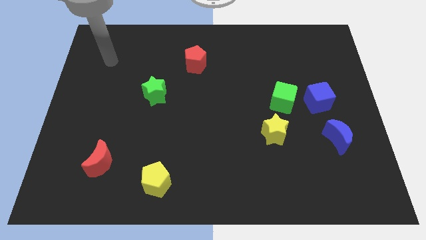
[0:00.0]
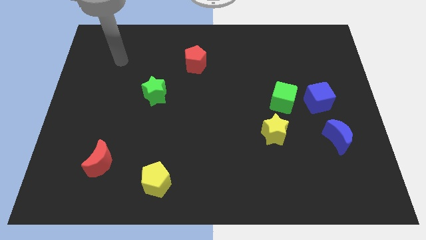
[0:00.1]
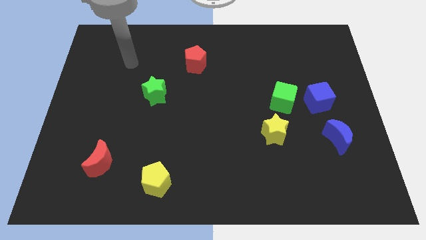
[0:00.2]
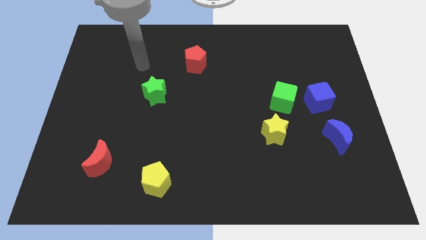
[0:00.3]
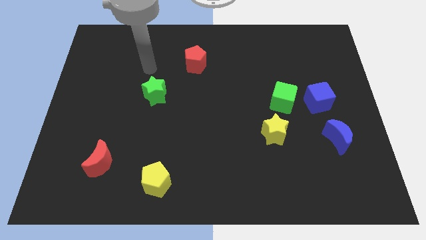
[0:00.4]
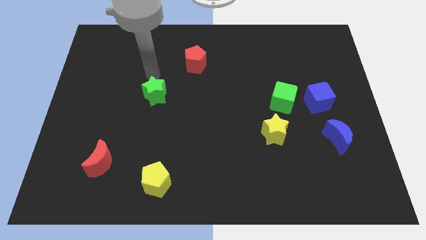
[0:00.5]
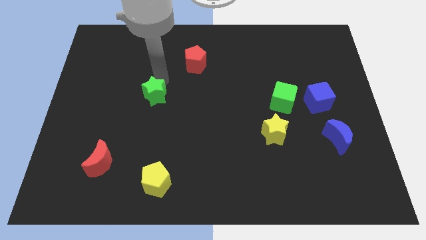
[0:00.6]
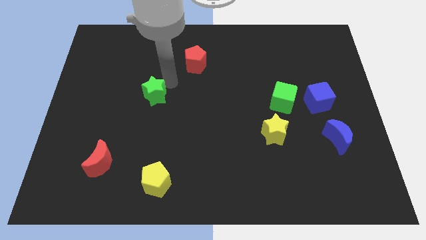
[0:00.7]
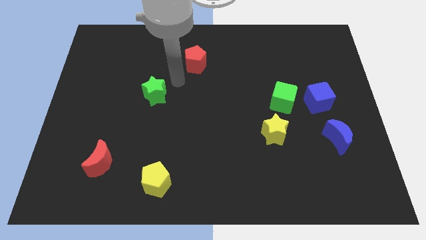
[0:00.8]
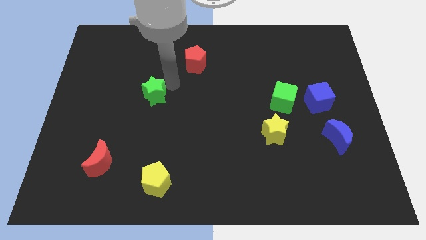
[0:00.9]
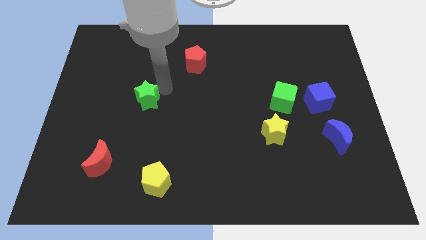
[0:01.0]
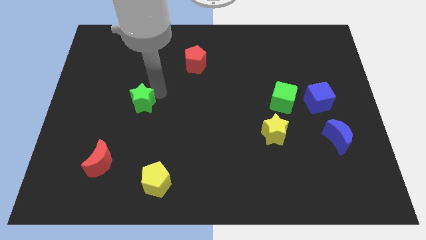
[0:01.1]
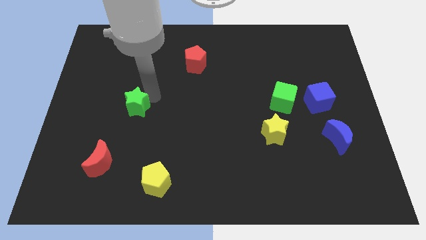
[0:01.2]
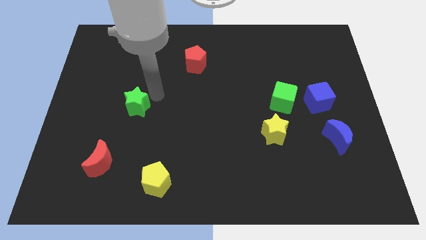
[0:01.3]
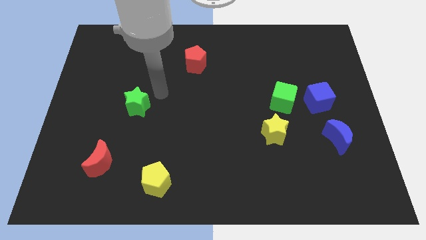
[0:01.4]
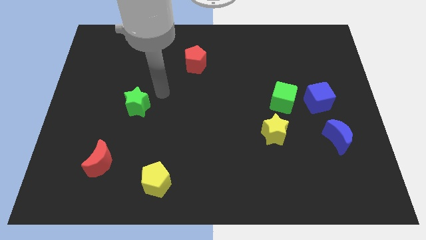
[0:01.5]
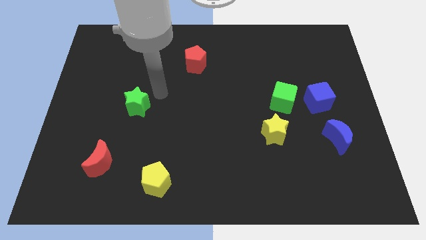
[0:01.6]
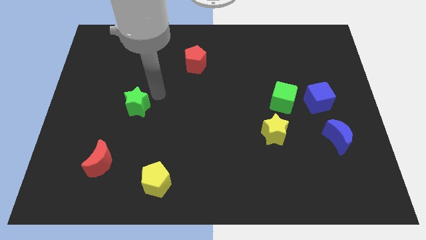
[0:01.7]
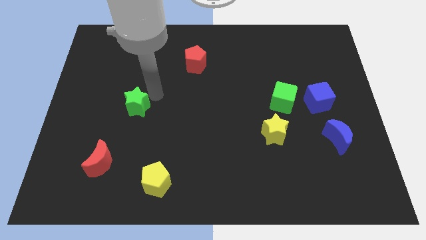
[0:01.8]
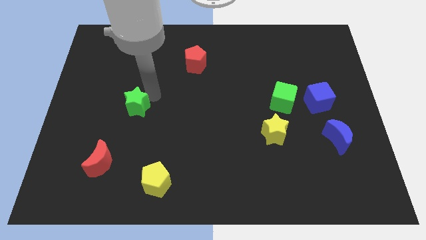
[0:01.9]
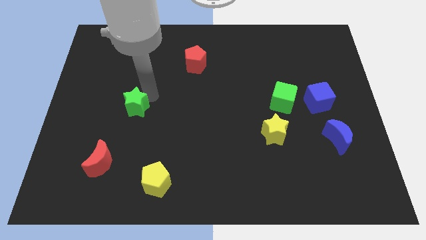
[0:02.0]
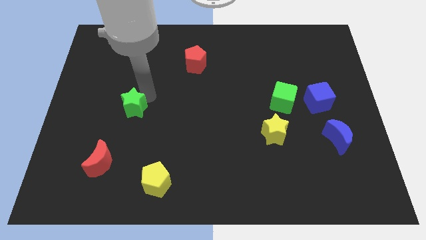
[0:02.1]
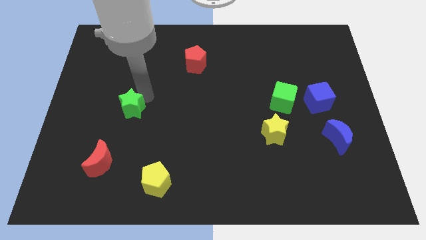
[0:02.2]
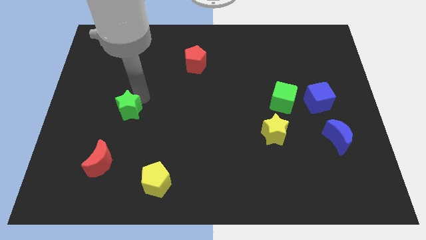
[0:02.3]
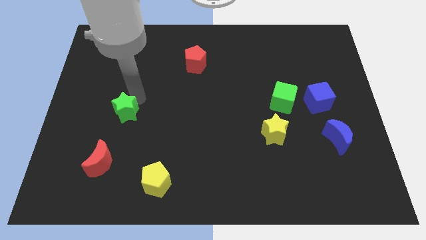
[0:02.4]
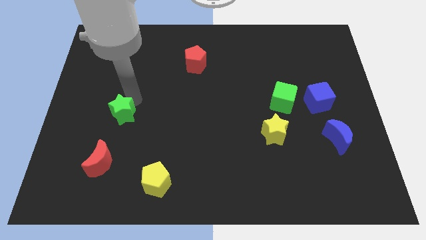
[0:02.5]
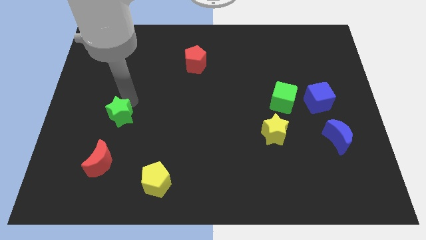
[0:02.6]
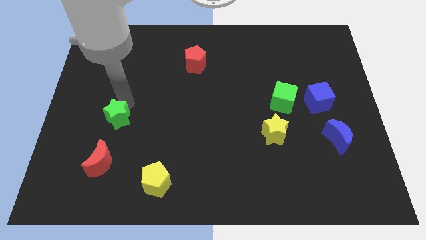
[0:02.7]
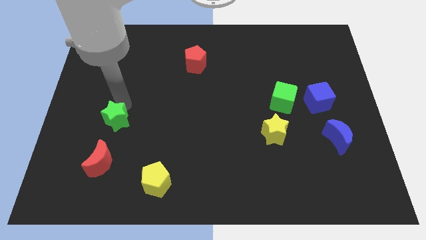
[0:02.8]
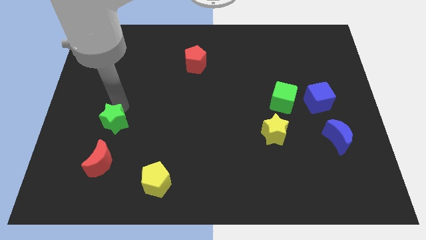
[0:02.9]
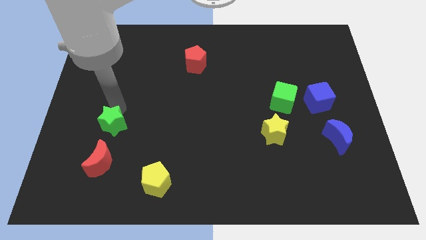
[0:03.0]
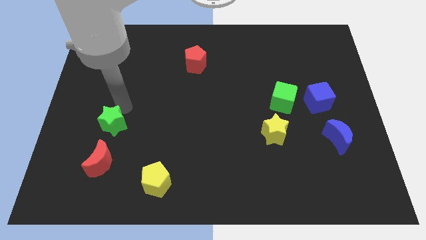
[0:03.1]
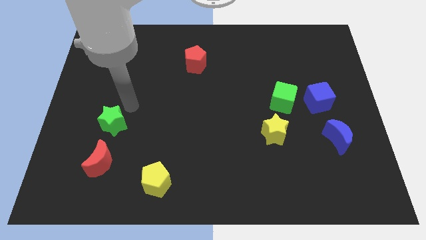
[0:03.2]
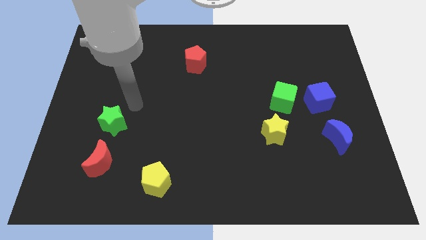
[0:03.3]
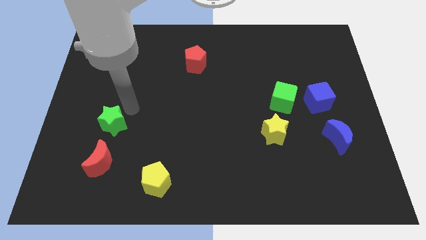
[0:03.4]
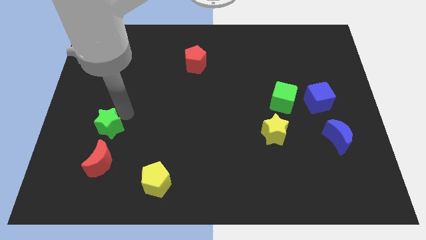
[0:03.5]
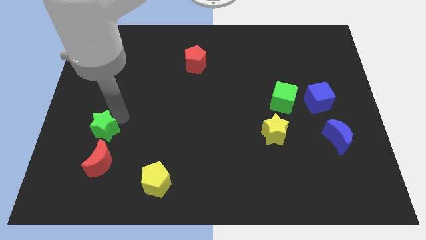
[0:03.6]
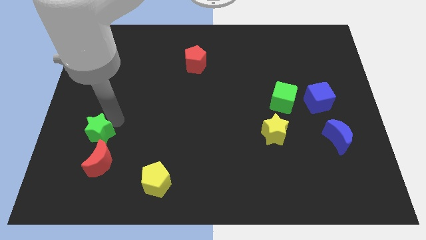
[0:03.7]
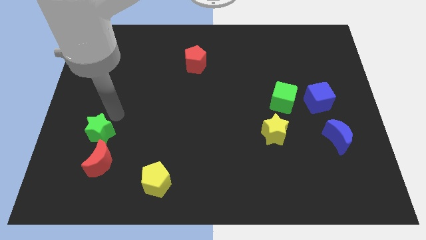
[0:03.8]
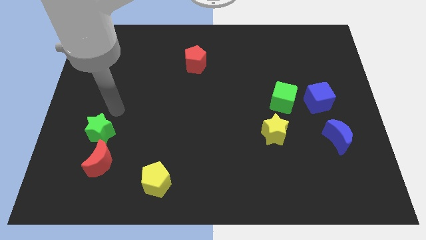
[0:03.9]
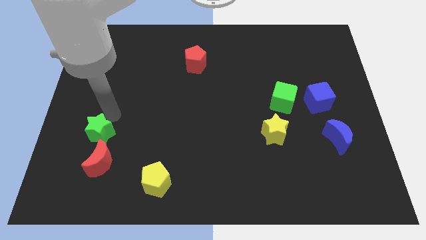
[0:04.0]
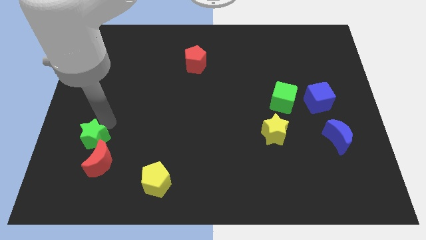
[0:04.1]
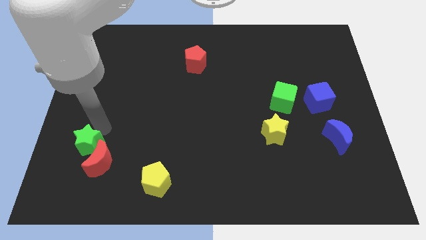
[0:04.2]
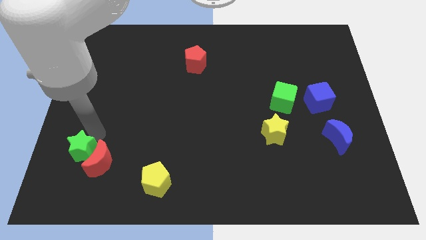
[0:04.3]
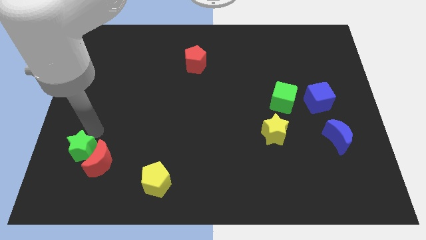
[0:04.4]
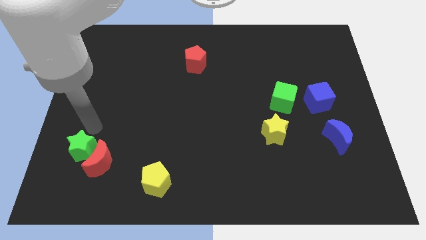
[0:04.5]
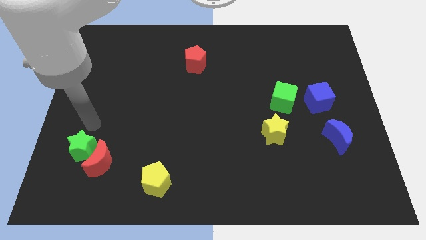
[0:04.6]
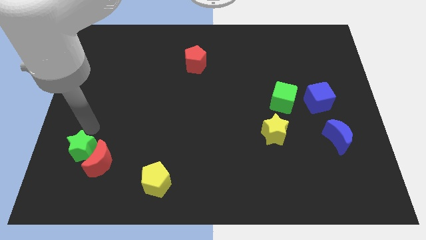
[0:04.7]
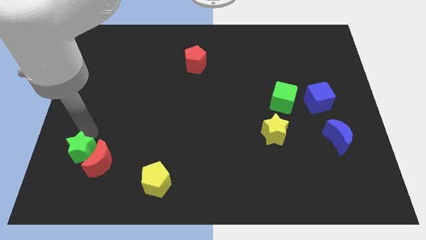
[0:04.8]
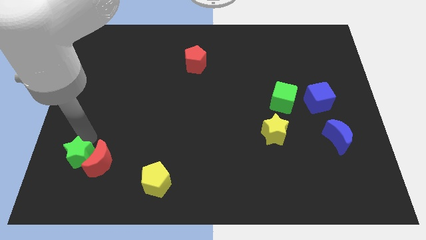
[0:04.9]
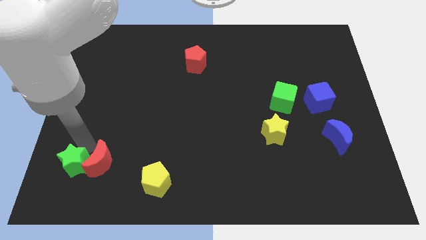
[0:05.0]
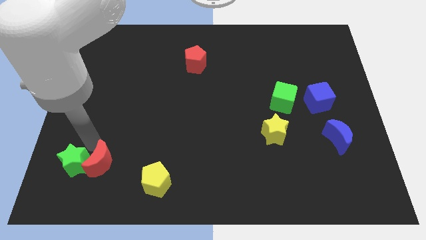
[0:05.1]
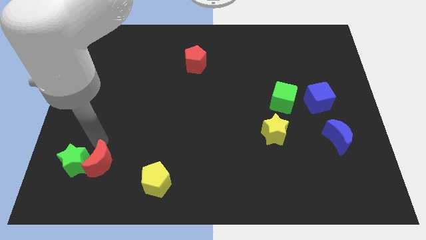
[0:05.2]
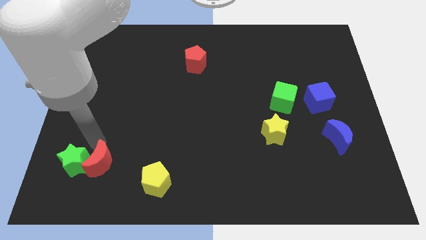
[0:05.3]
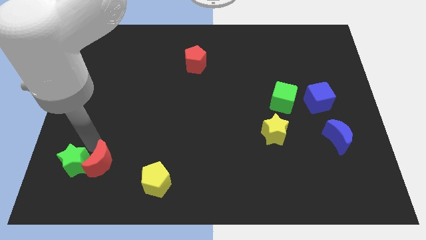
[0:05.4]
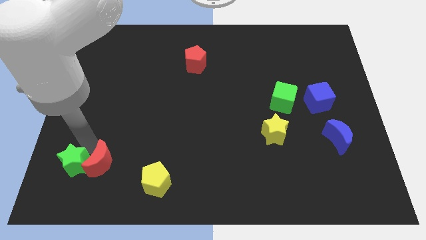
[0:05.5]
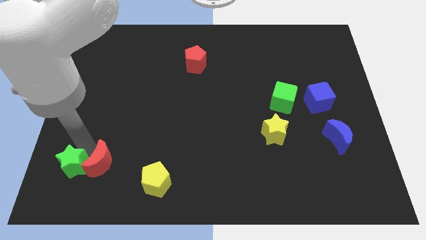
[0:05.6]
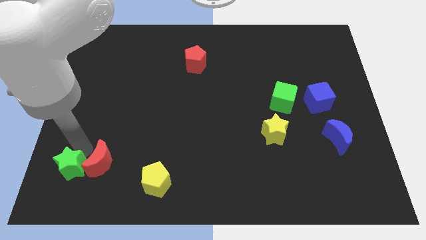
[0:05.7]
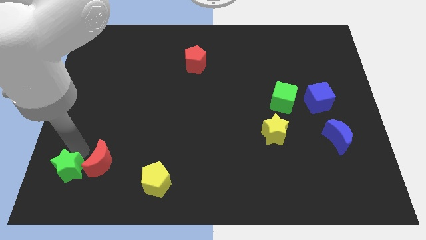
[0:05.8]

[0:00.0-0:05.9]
slide the green star to the bottom left of the board
